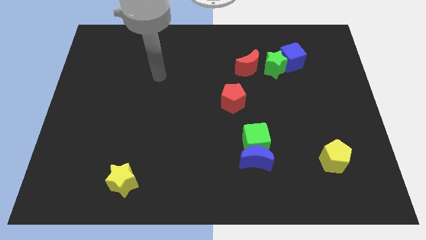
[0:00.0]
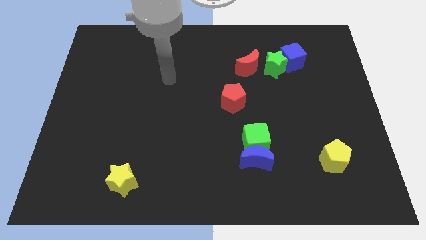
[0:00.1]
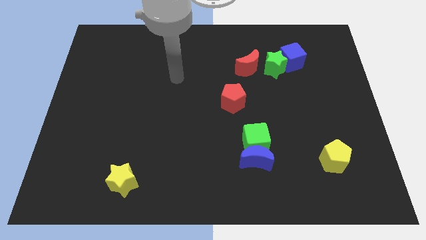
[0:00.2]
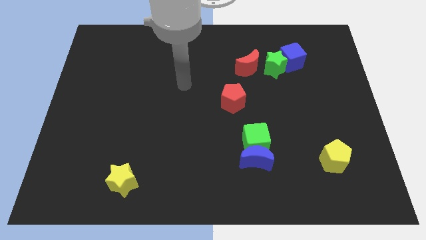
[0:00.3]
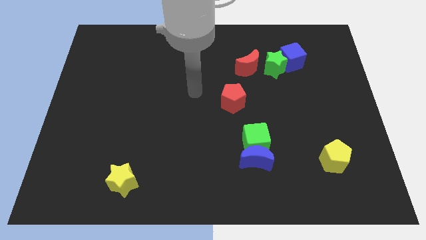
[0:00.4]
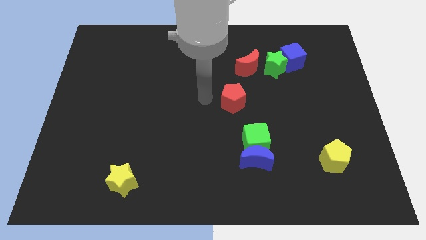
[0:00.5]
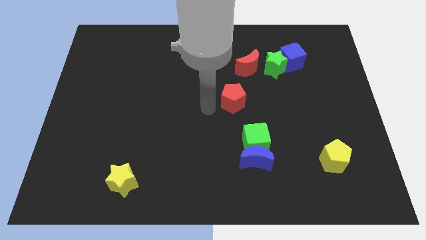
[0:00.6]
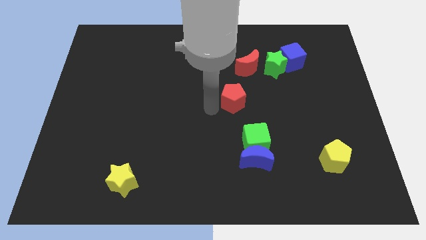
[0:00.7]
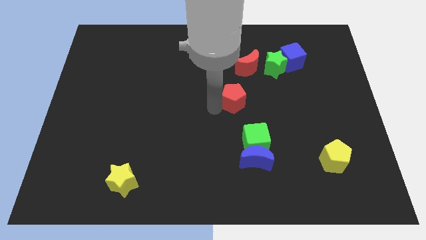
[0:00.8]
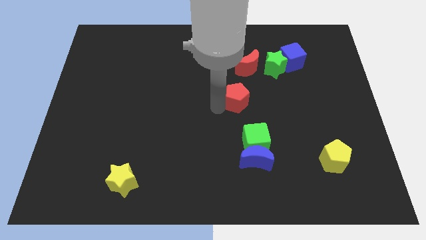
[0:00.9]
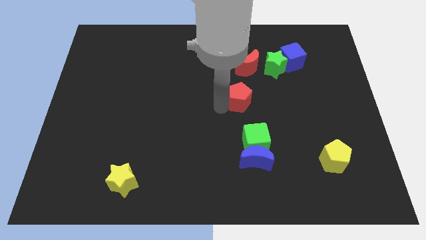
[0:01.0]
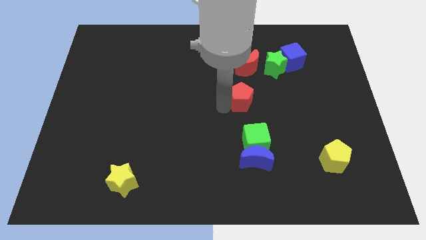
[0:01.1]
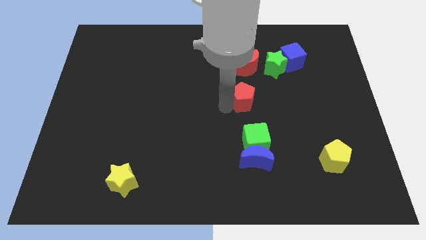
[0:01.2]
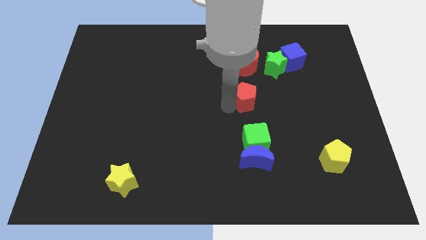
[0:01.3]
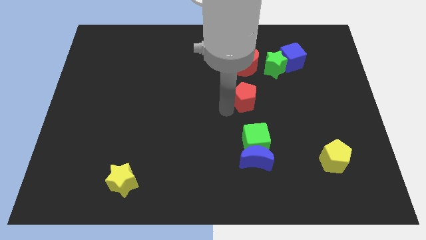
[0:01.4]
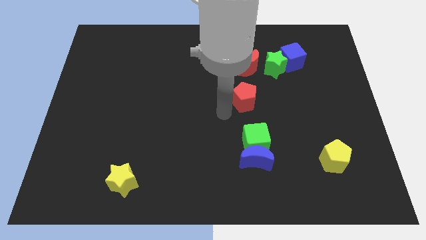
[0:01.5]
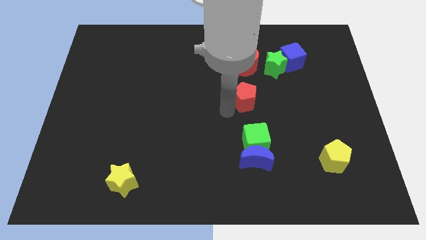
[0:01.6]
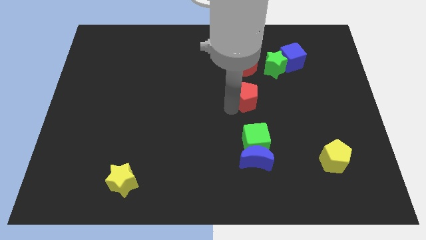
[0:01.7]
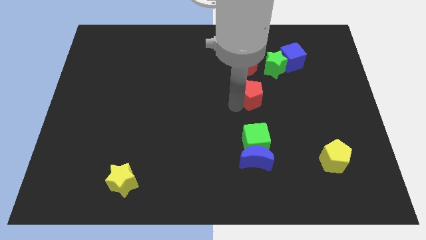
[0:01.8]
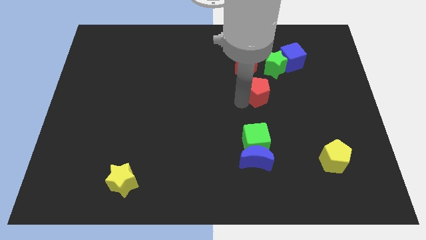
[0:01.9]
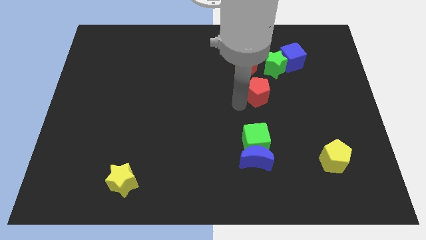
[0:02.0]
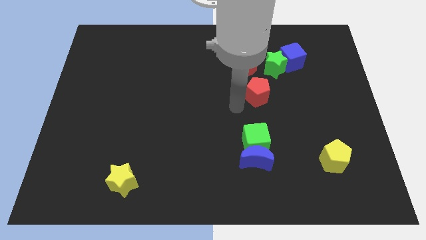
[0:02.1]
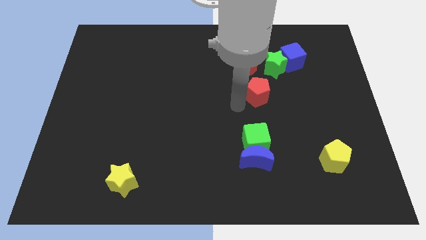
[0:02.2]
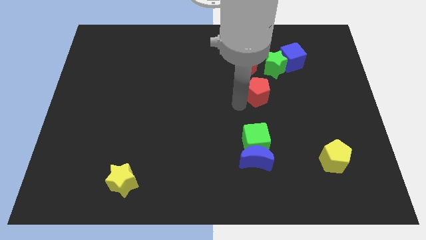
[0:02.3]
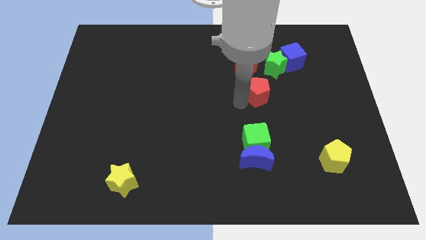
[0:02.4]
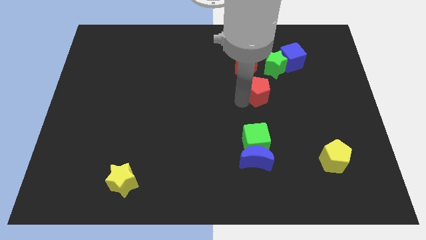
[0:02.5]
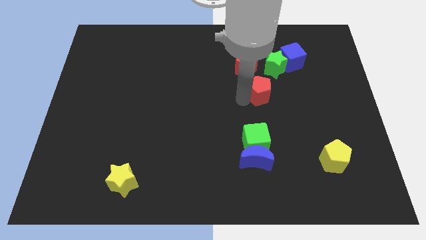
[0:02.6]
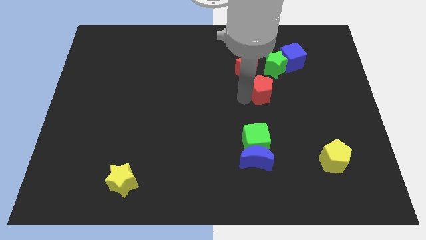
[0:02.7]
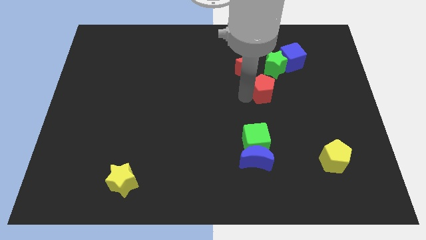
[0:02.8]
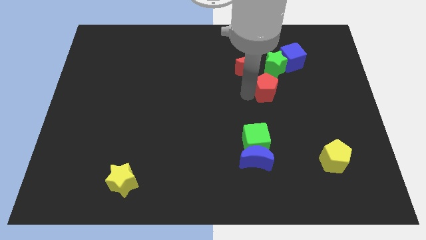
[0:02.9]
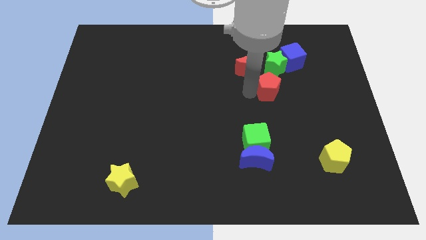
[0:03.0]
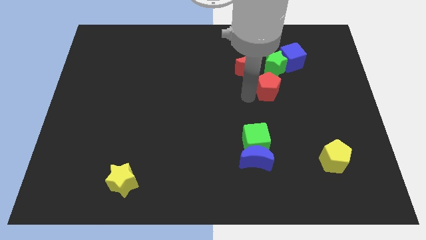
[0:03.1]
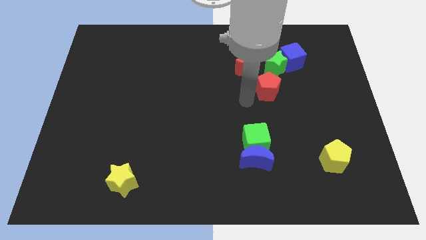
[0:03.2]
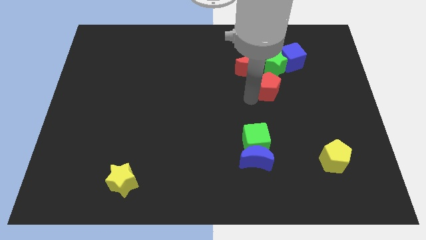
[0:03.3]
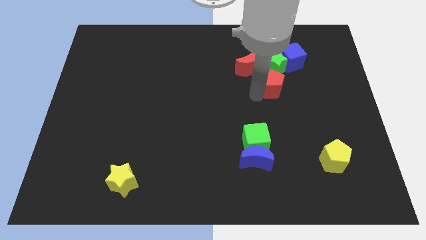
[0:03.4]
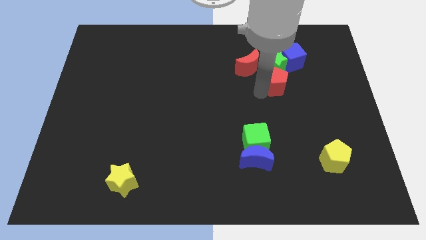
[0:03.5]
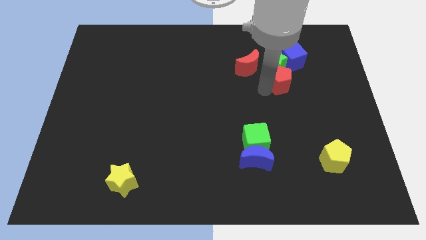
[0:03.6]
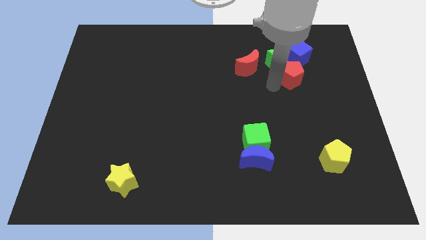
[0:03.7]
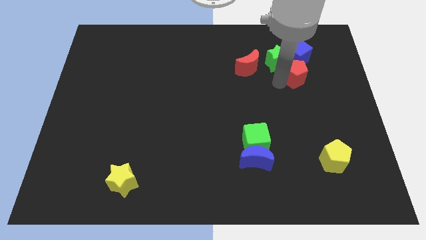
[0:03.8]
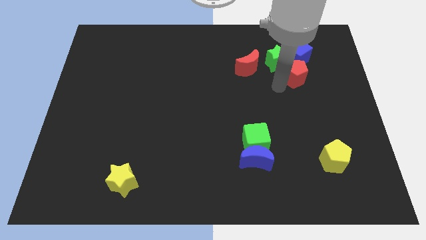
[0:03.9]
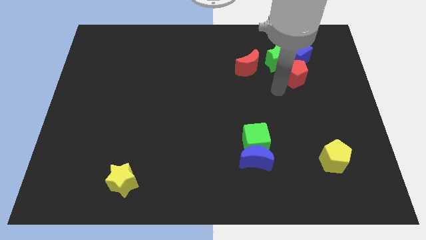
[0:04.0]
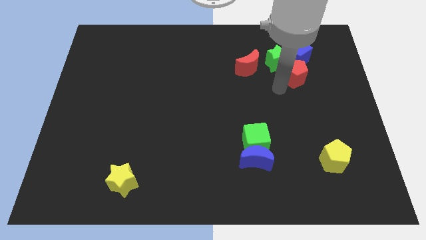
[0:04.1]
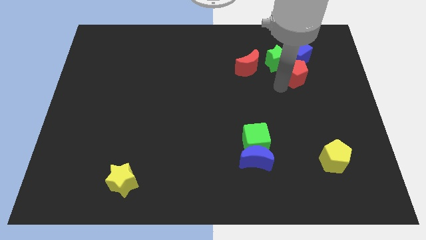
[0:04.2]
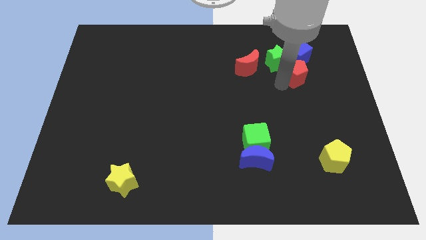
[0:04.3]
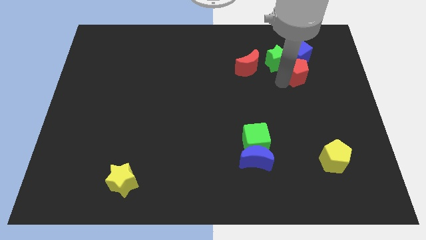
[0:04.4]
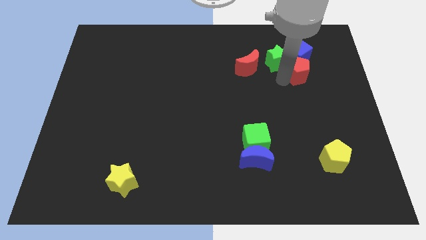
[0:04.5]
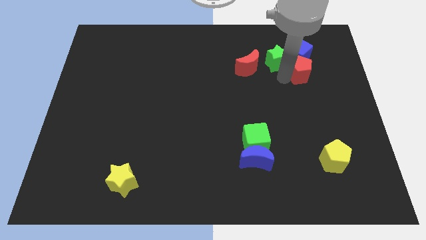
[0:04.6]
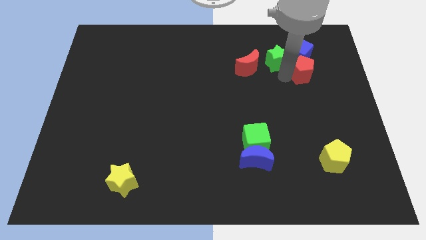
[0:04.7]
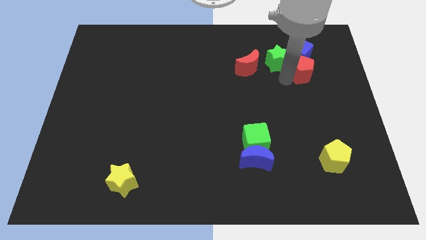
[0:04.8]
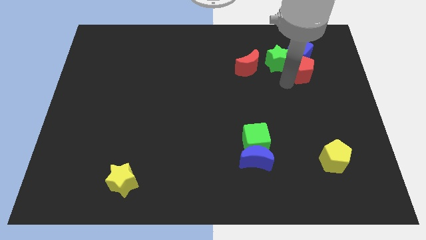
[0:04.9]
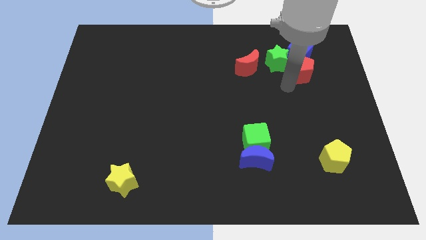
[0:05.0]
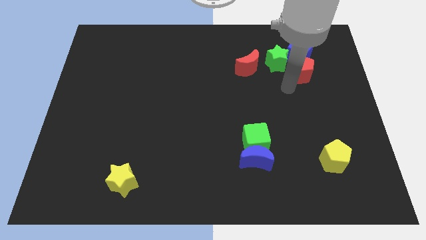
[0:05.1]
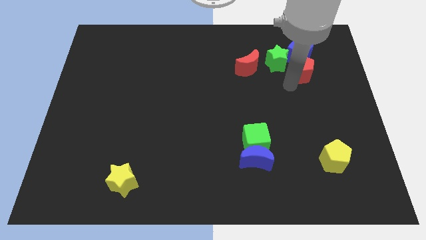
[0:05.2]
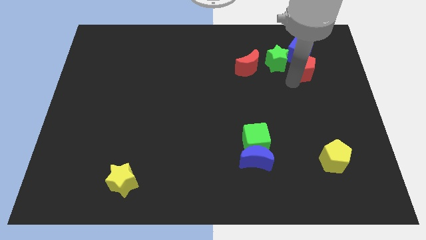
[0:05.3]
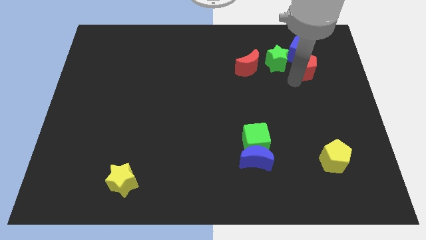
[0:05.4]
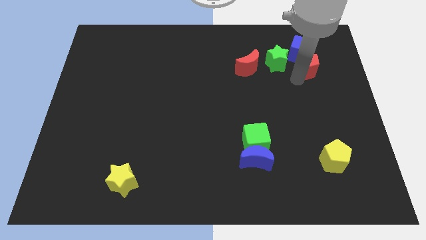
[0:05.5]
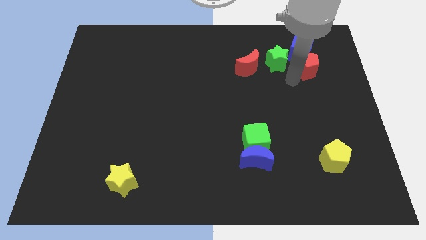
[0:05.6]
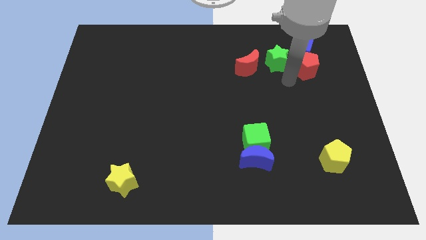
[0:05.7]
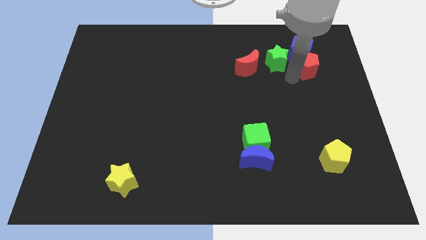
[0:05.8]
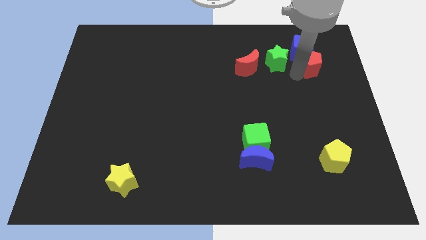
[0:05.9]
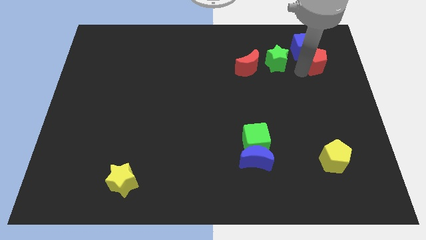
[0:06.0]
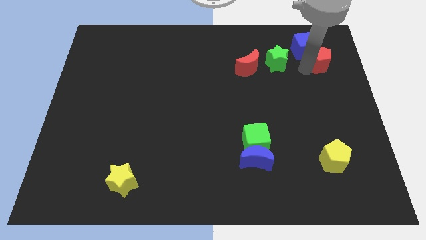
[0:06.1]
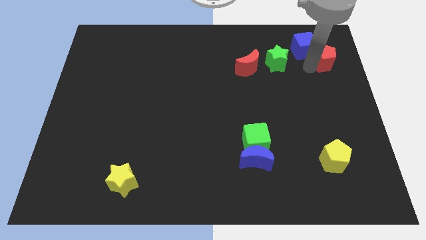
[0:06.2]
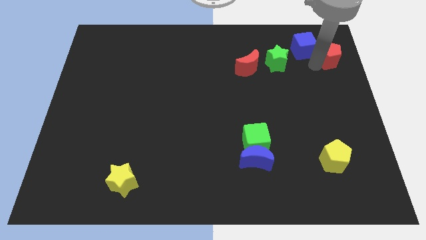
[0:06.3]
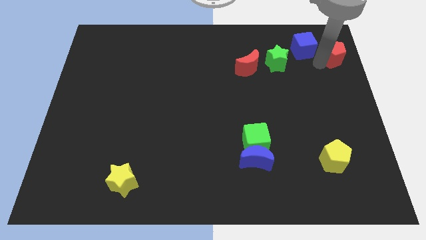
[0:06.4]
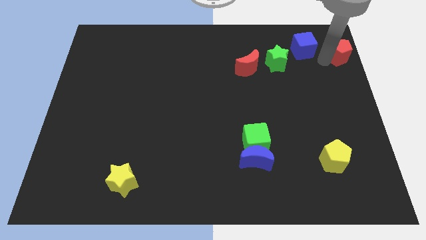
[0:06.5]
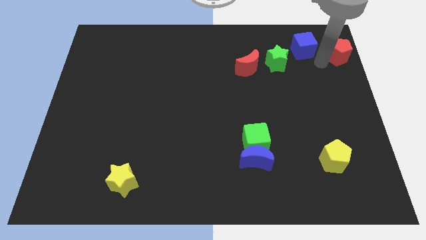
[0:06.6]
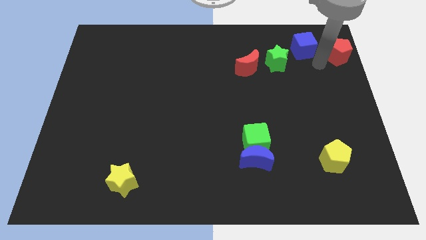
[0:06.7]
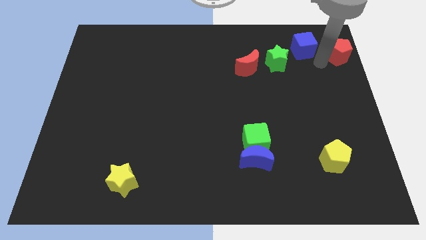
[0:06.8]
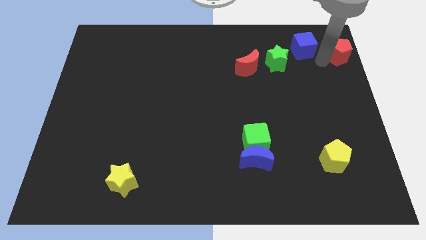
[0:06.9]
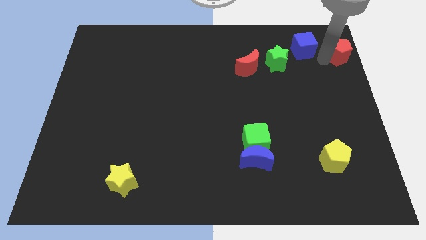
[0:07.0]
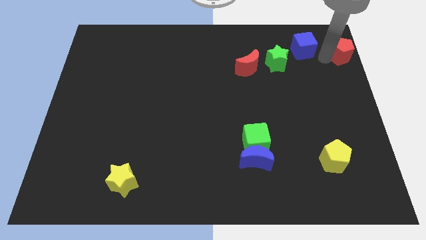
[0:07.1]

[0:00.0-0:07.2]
move the red pentagon to the top right
